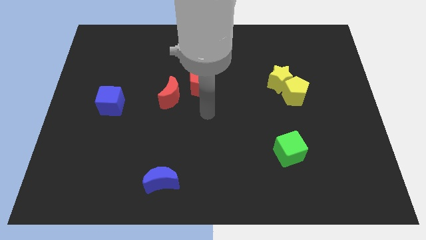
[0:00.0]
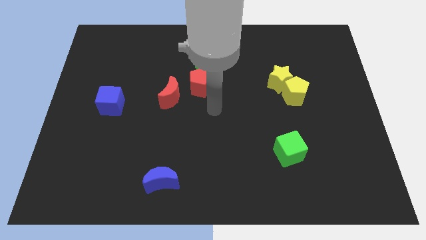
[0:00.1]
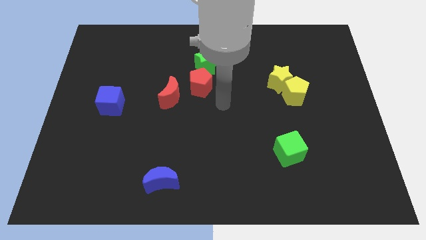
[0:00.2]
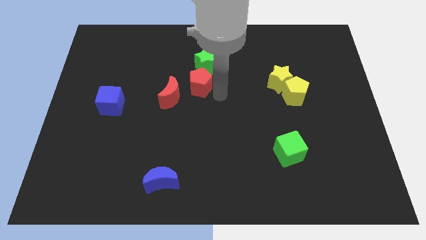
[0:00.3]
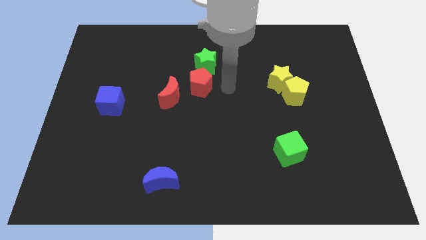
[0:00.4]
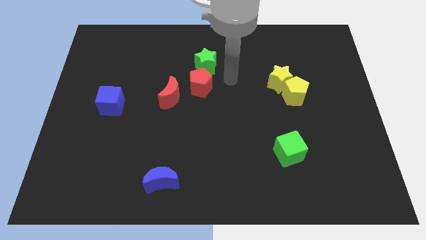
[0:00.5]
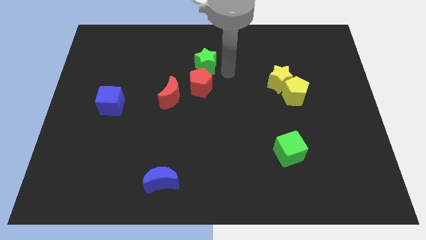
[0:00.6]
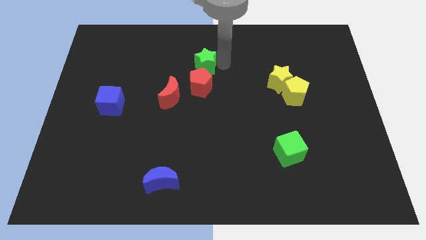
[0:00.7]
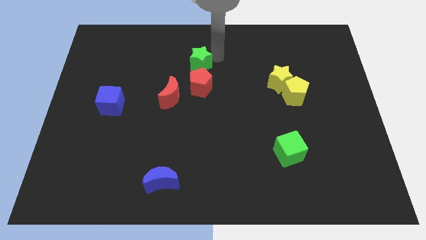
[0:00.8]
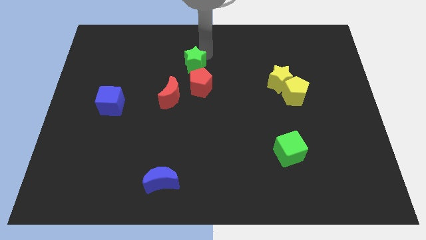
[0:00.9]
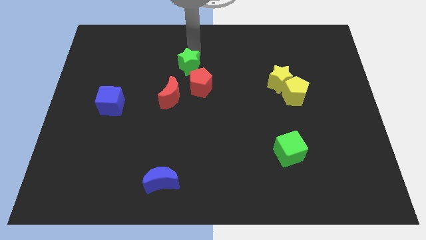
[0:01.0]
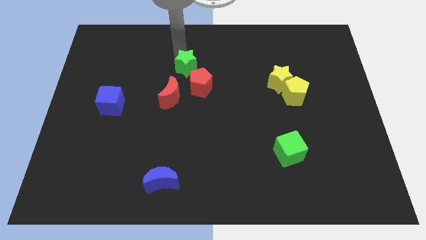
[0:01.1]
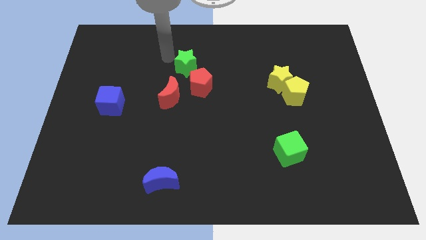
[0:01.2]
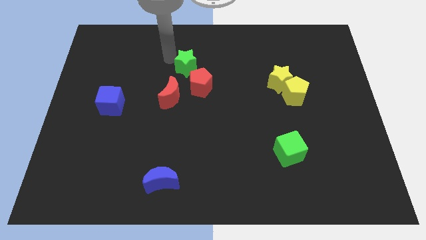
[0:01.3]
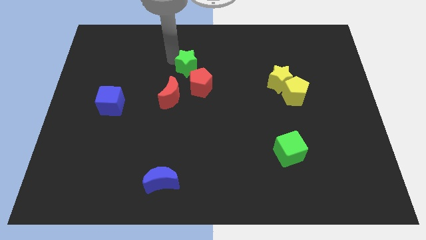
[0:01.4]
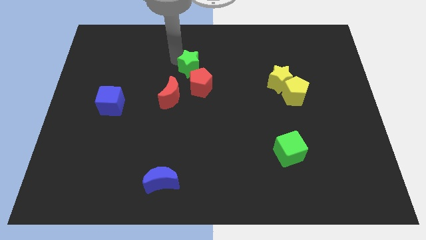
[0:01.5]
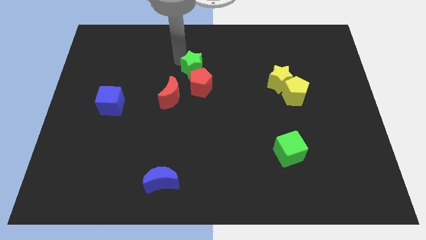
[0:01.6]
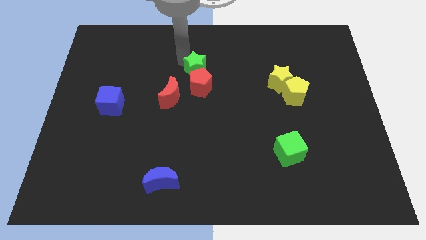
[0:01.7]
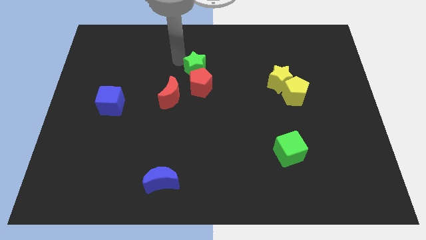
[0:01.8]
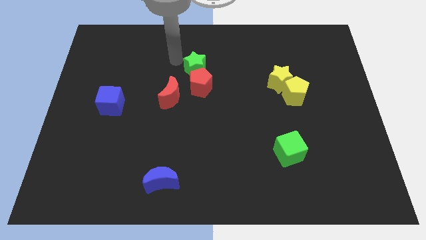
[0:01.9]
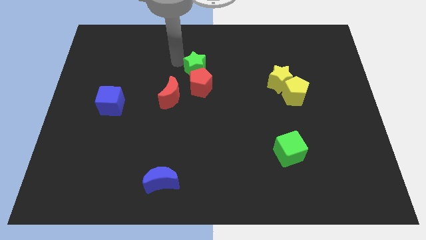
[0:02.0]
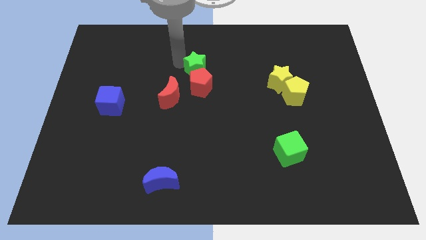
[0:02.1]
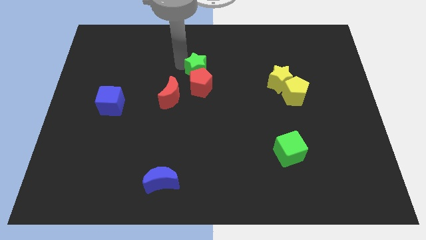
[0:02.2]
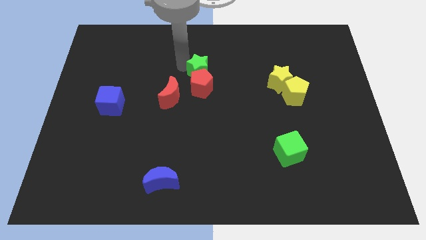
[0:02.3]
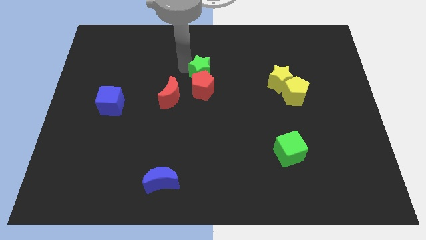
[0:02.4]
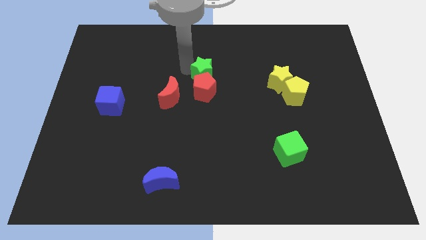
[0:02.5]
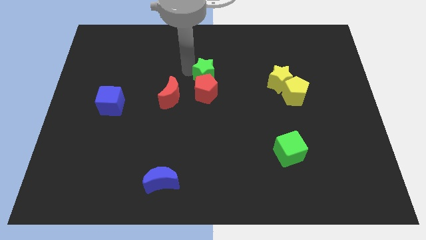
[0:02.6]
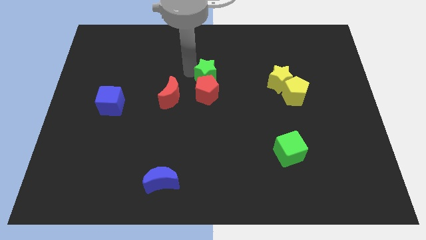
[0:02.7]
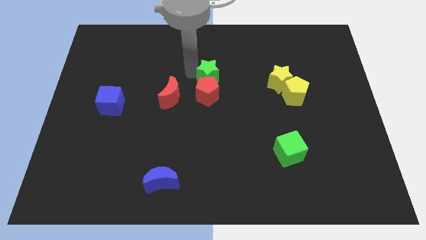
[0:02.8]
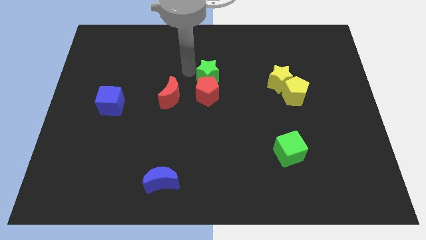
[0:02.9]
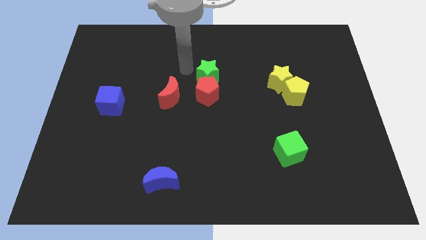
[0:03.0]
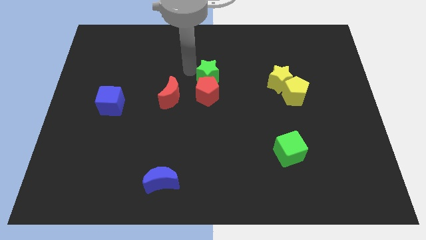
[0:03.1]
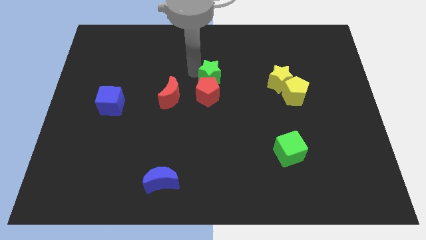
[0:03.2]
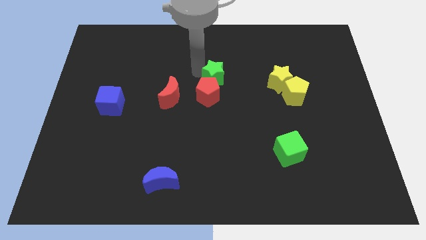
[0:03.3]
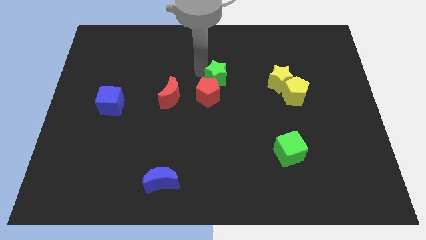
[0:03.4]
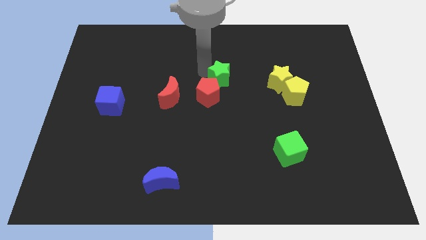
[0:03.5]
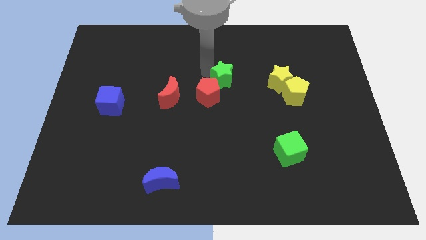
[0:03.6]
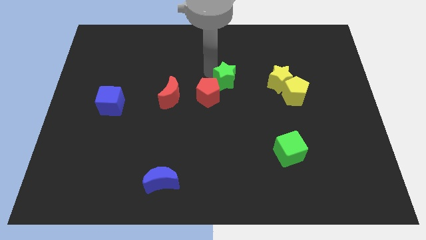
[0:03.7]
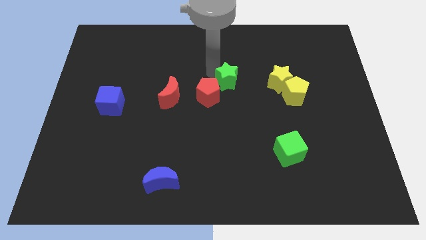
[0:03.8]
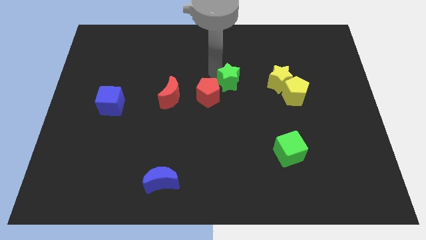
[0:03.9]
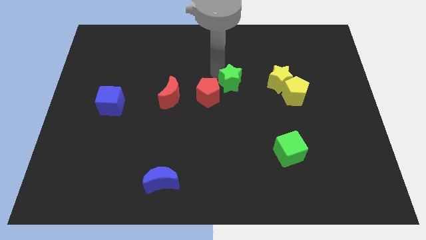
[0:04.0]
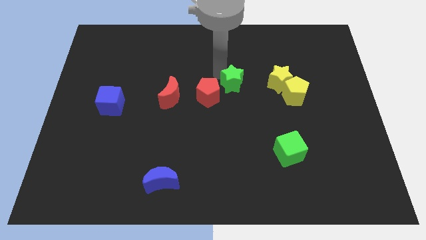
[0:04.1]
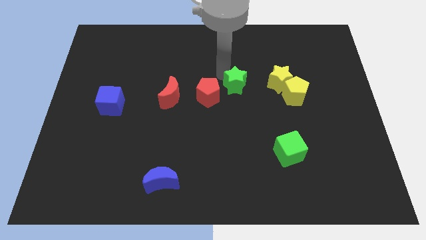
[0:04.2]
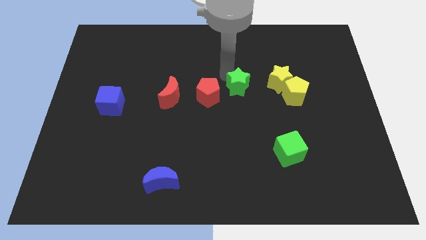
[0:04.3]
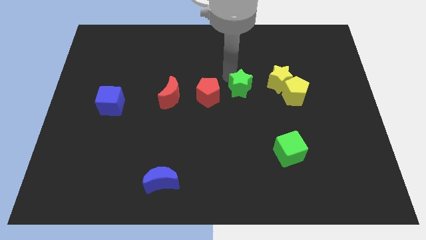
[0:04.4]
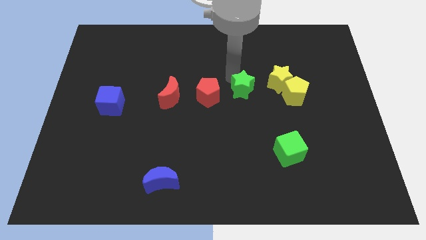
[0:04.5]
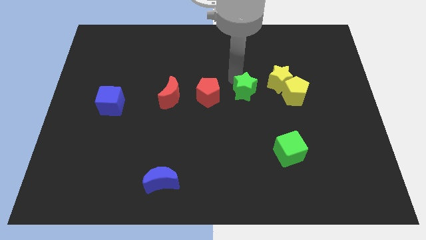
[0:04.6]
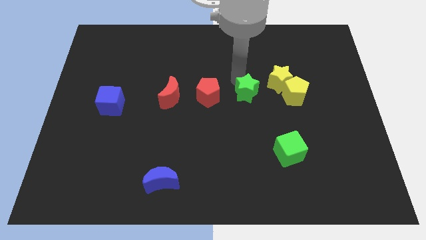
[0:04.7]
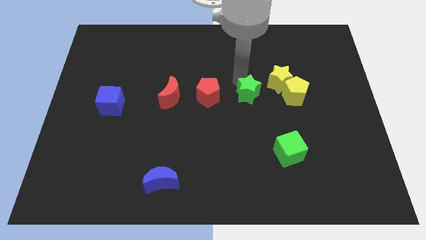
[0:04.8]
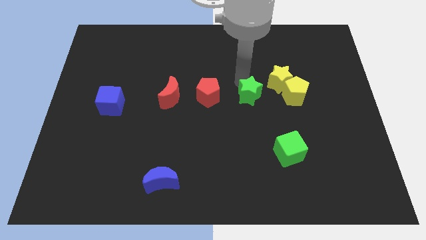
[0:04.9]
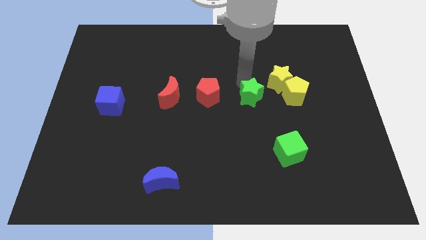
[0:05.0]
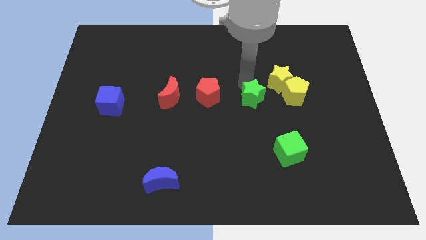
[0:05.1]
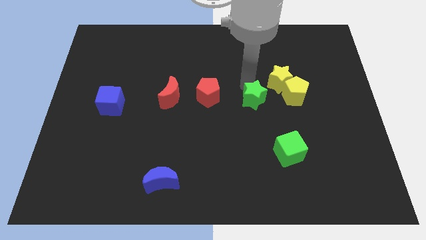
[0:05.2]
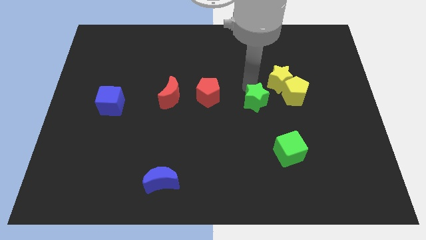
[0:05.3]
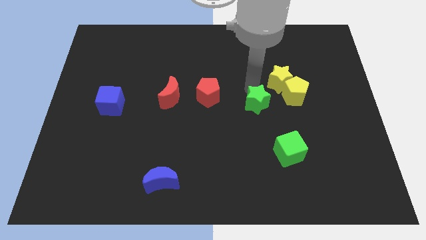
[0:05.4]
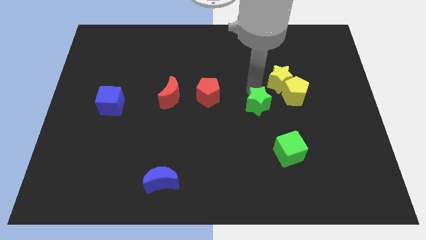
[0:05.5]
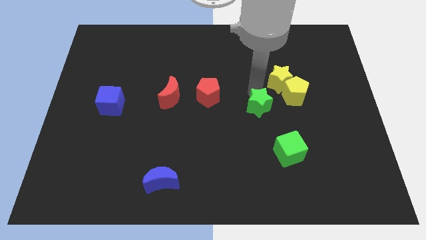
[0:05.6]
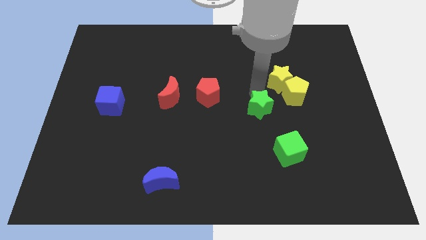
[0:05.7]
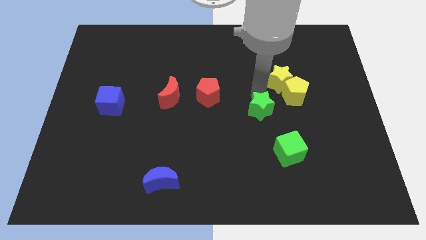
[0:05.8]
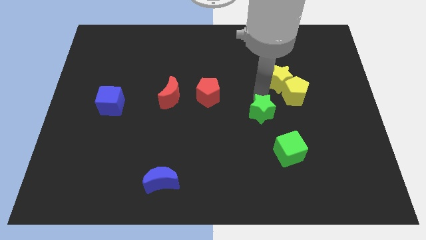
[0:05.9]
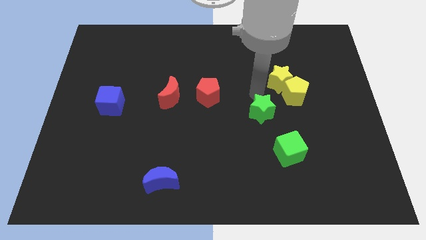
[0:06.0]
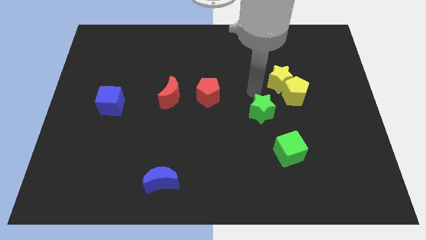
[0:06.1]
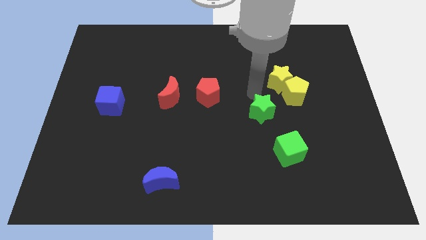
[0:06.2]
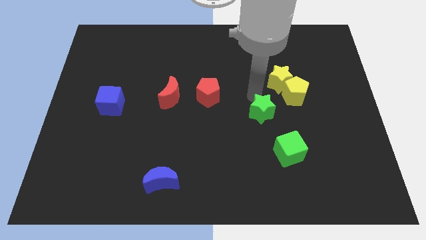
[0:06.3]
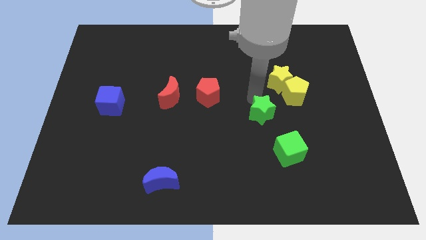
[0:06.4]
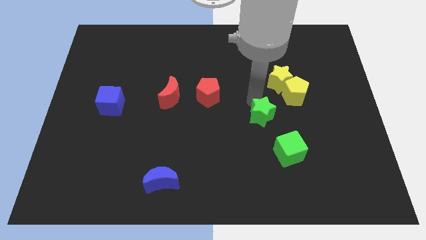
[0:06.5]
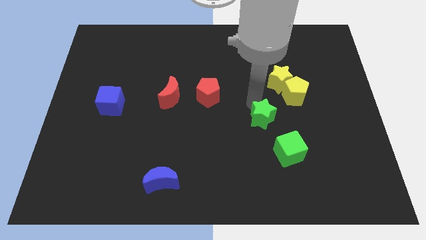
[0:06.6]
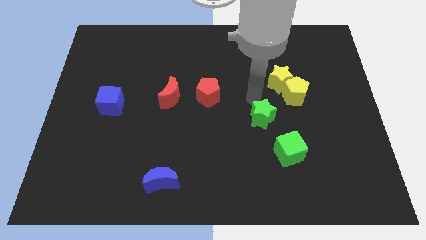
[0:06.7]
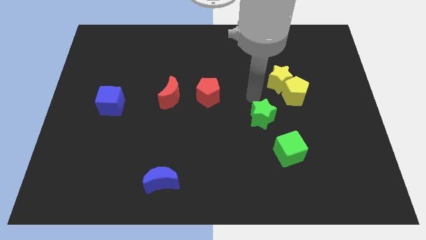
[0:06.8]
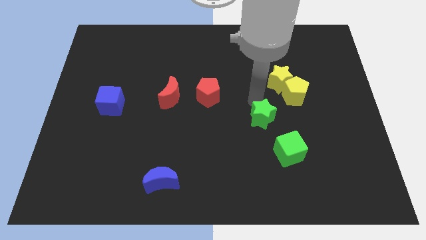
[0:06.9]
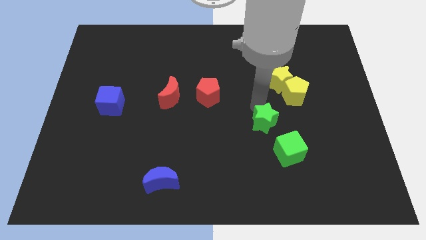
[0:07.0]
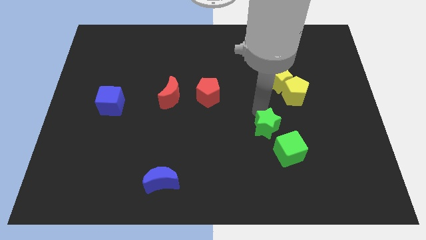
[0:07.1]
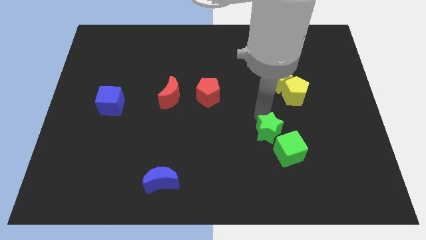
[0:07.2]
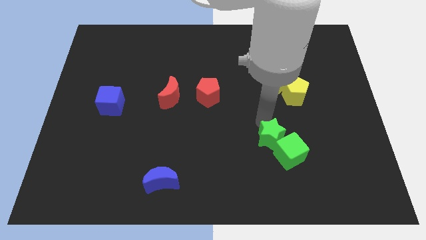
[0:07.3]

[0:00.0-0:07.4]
push the green star to the green cube
